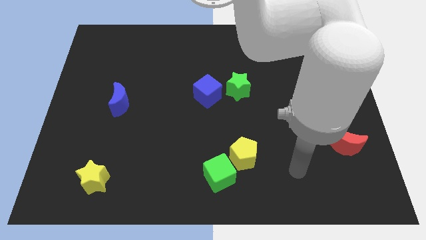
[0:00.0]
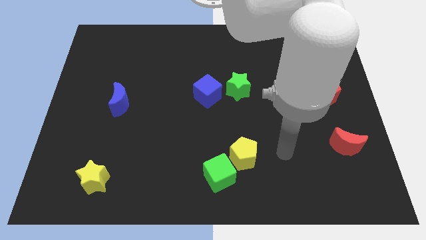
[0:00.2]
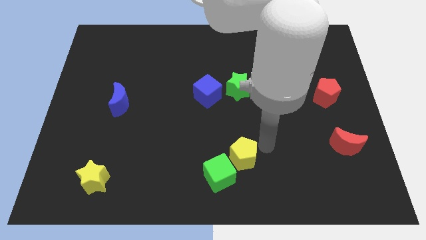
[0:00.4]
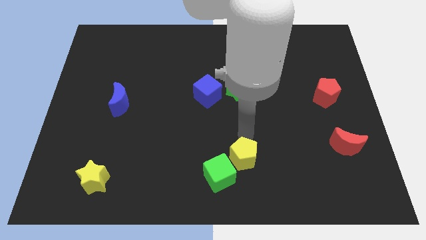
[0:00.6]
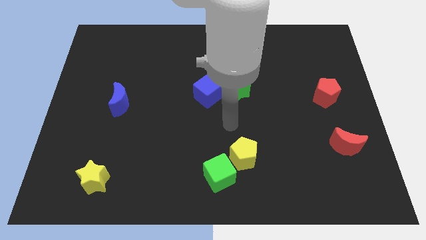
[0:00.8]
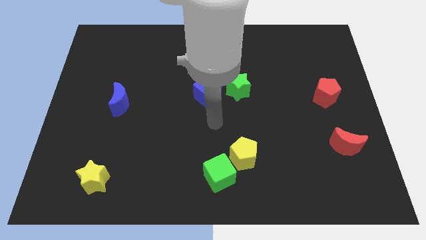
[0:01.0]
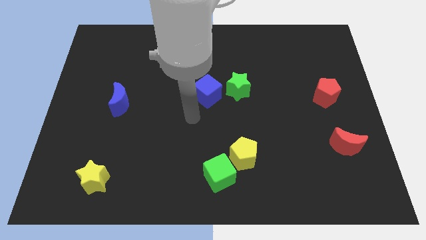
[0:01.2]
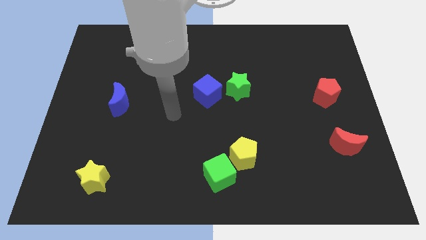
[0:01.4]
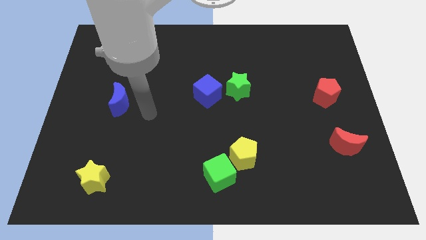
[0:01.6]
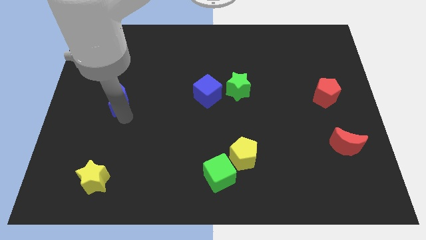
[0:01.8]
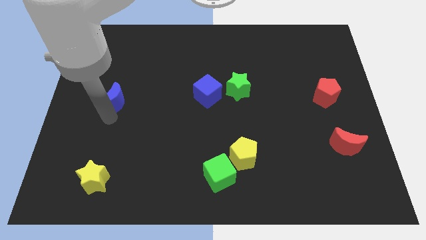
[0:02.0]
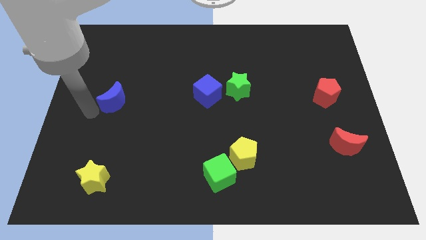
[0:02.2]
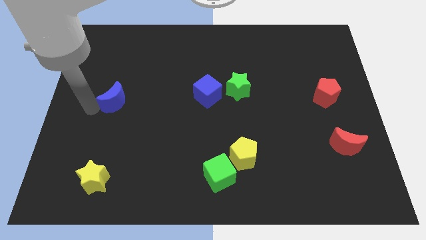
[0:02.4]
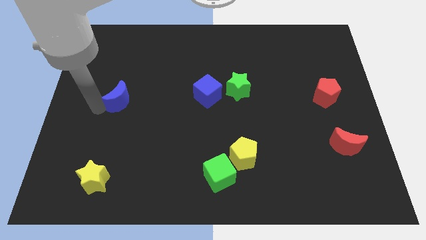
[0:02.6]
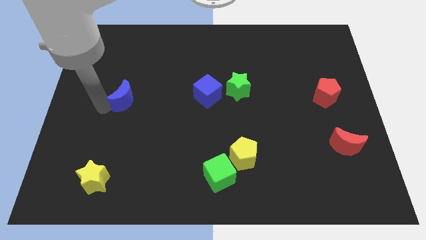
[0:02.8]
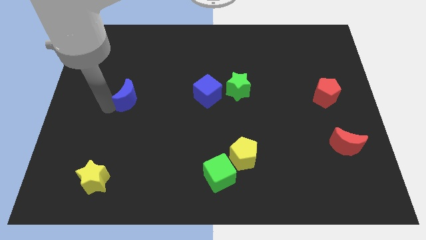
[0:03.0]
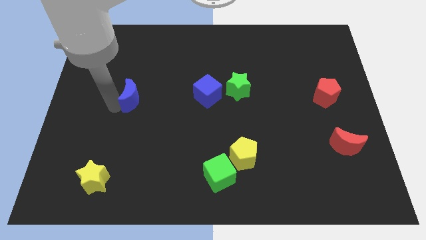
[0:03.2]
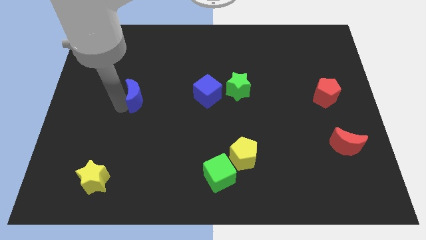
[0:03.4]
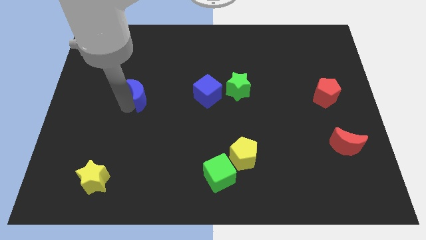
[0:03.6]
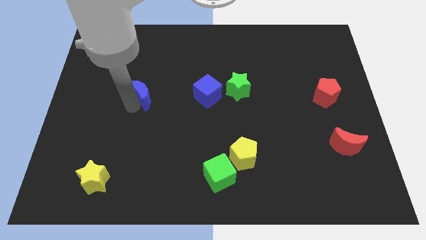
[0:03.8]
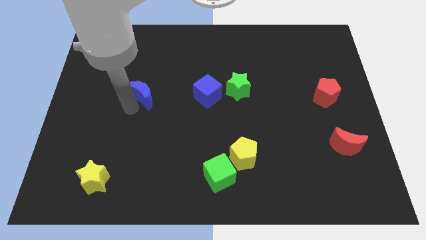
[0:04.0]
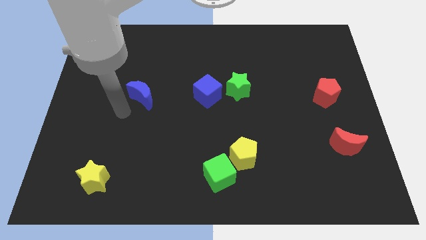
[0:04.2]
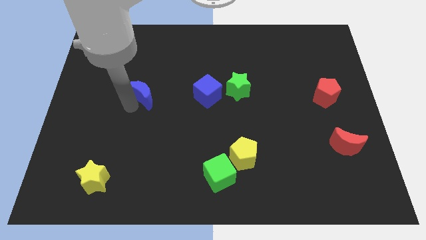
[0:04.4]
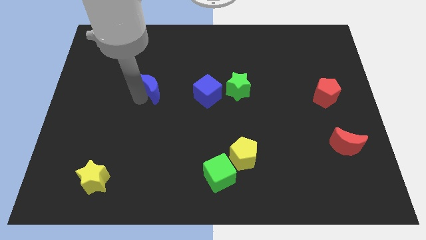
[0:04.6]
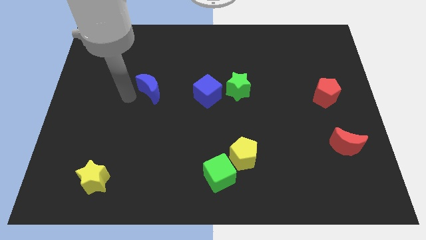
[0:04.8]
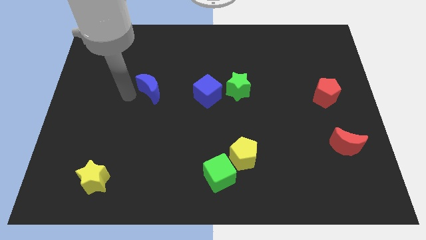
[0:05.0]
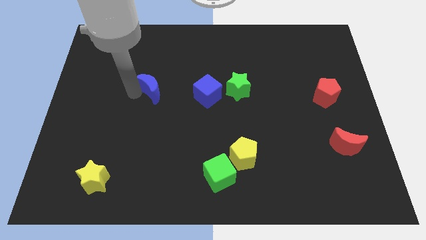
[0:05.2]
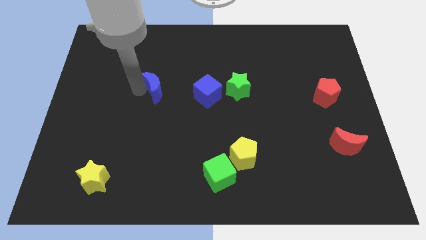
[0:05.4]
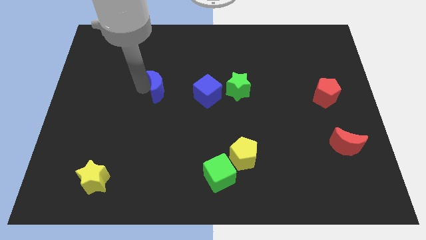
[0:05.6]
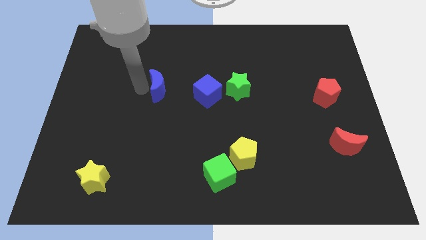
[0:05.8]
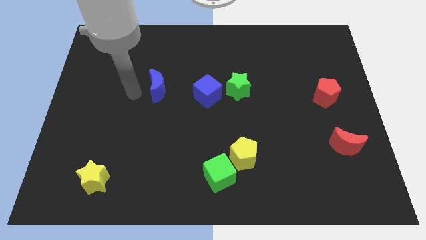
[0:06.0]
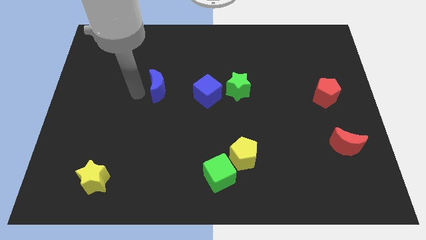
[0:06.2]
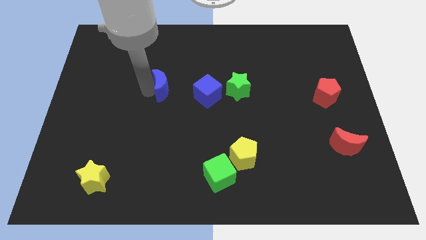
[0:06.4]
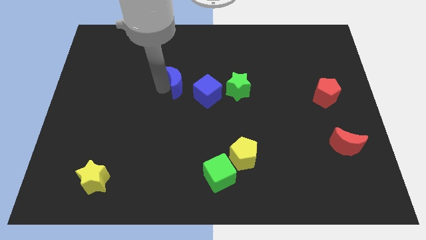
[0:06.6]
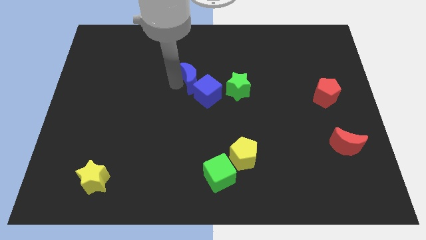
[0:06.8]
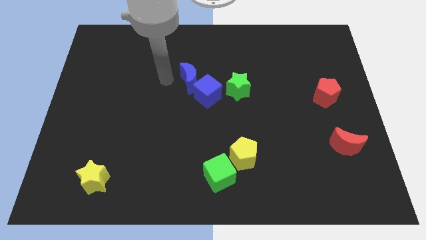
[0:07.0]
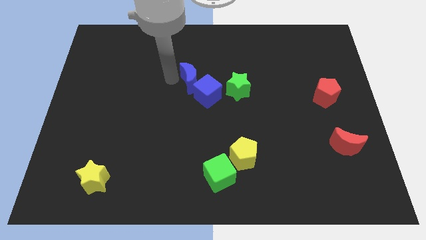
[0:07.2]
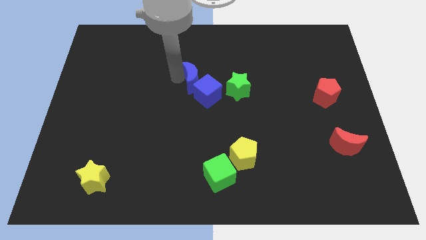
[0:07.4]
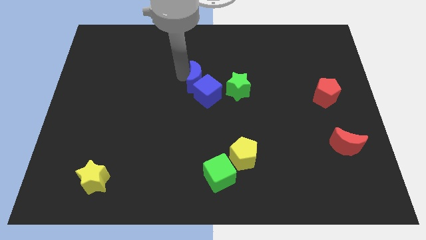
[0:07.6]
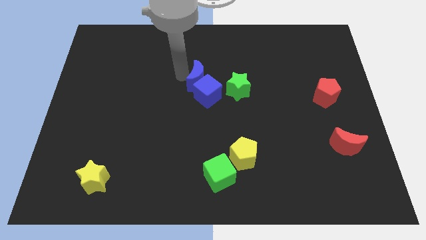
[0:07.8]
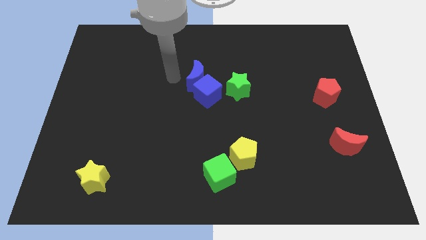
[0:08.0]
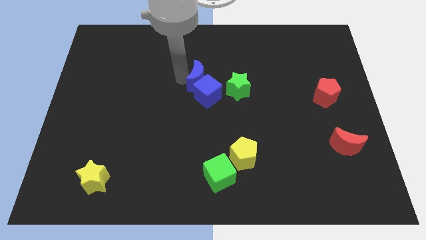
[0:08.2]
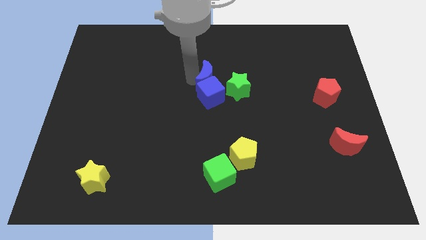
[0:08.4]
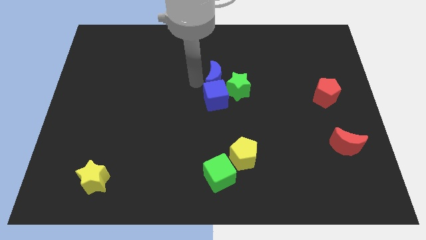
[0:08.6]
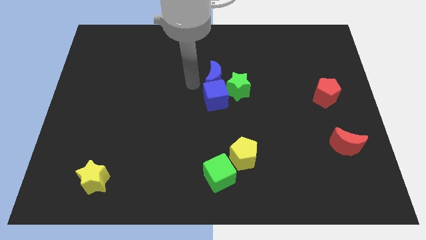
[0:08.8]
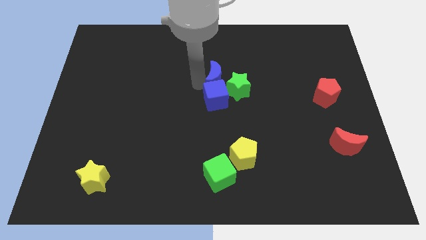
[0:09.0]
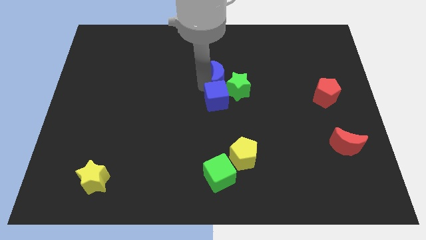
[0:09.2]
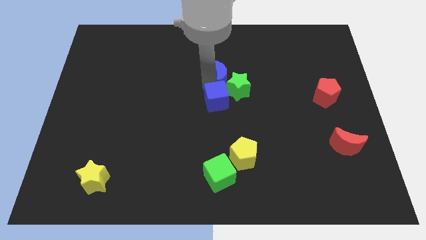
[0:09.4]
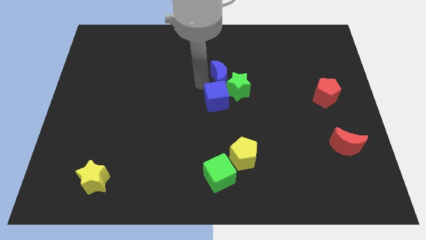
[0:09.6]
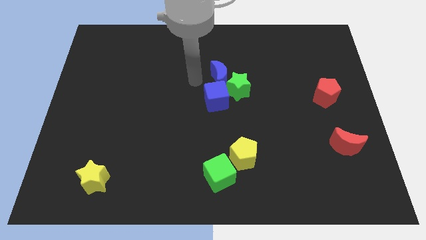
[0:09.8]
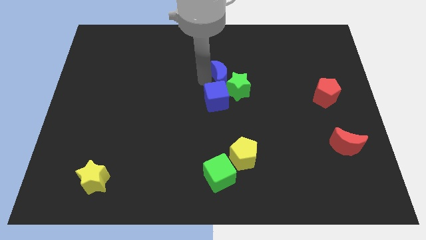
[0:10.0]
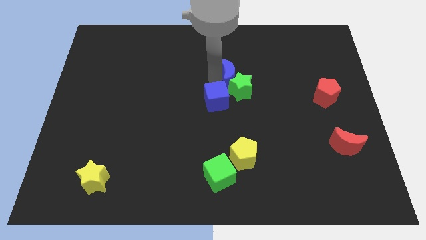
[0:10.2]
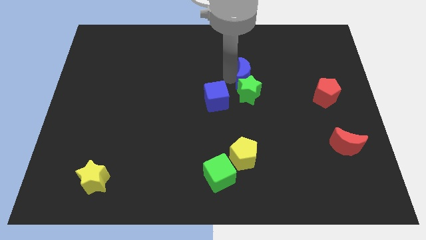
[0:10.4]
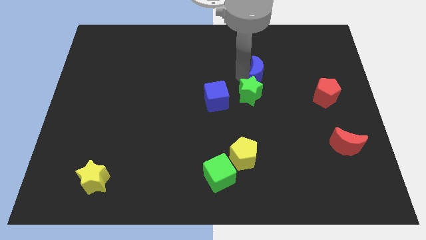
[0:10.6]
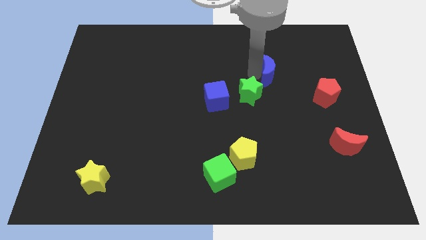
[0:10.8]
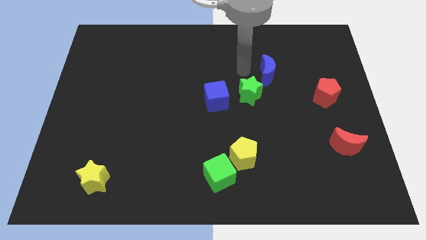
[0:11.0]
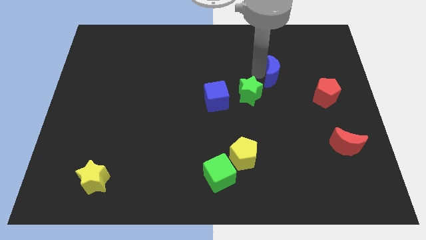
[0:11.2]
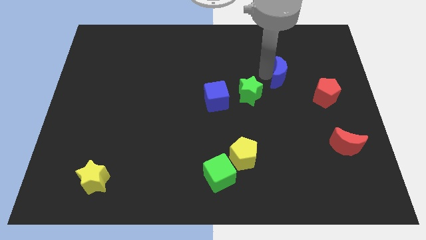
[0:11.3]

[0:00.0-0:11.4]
slide the blue moon diagonally up and to the left of the red pentagon

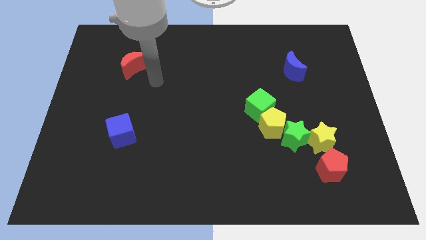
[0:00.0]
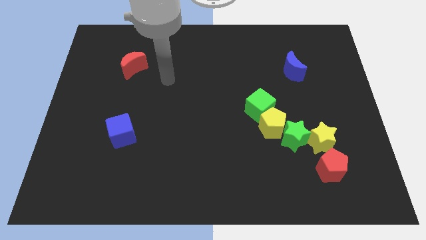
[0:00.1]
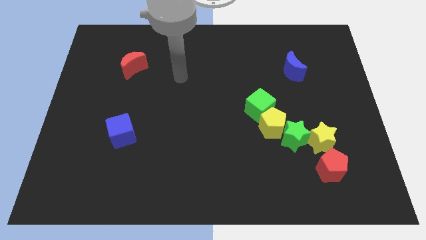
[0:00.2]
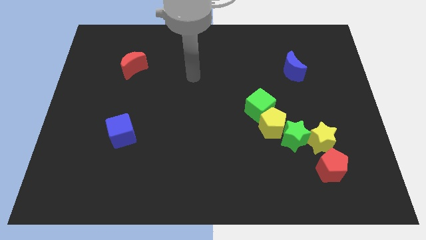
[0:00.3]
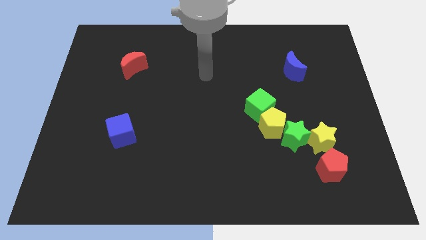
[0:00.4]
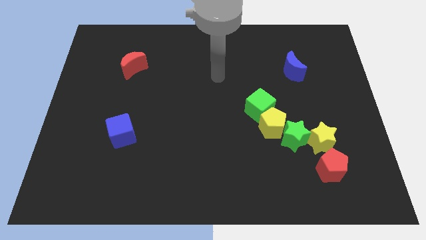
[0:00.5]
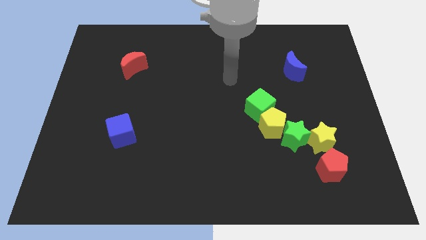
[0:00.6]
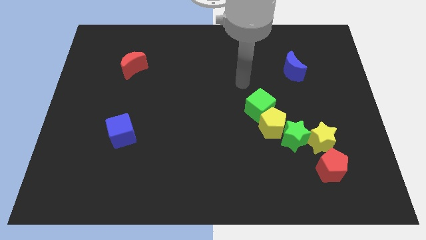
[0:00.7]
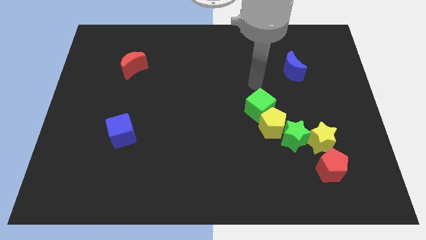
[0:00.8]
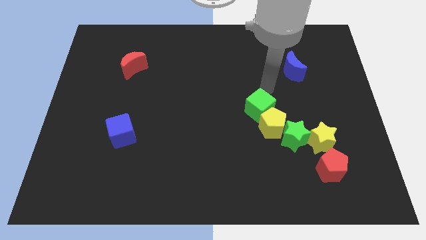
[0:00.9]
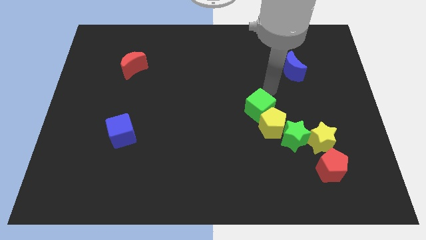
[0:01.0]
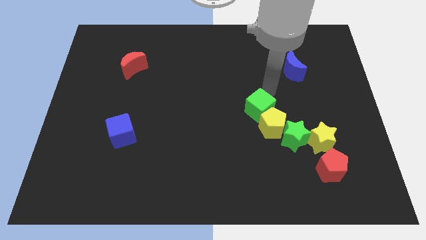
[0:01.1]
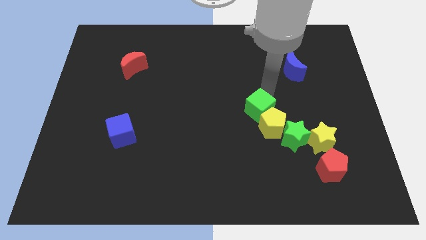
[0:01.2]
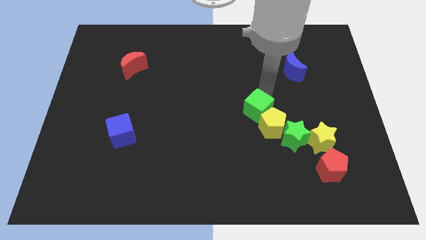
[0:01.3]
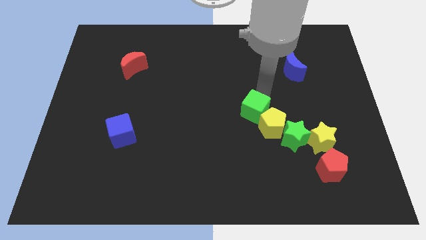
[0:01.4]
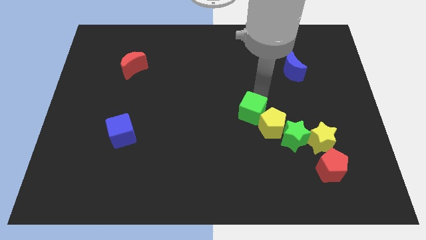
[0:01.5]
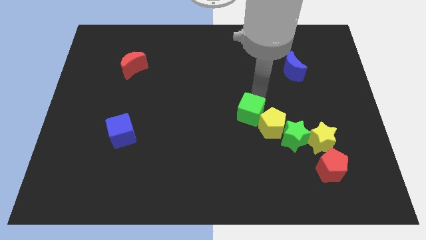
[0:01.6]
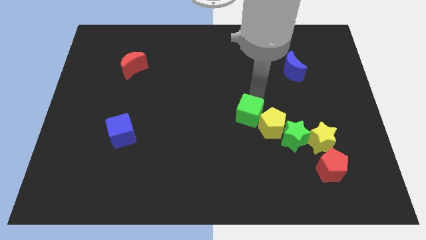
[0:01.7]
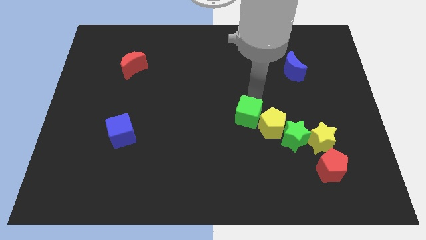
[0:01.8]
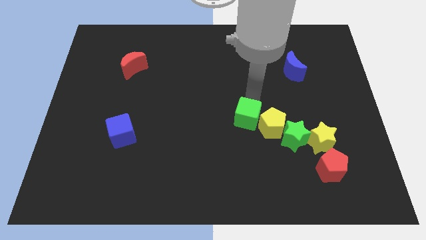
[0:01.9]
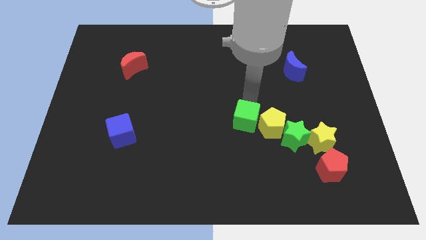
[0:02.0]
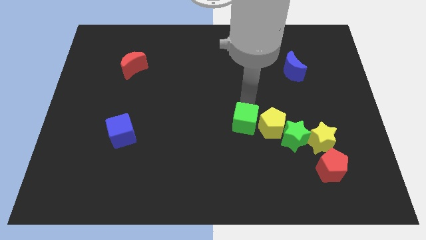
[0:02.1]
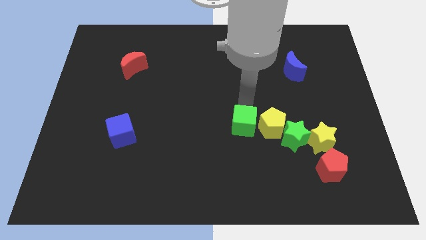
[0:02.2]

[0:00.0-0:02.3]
move the green cube to the bottom left of the yellow pentagon

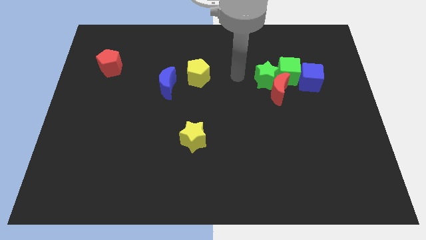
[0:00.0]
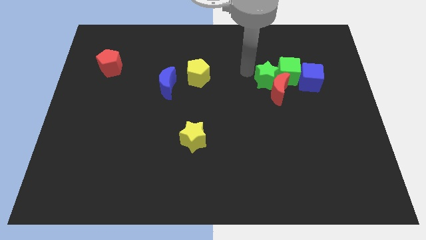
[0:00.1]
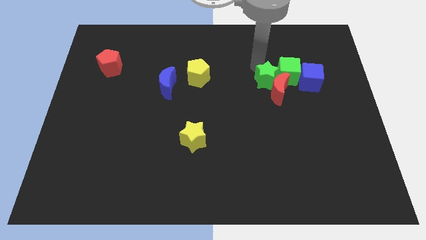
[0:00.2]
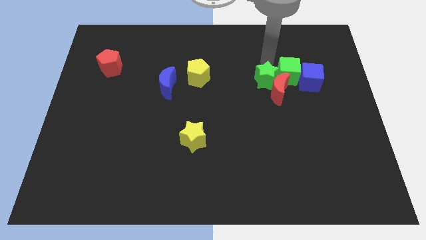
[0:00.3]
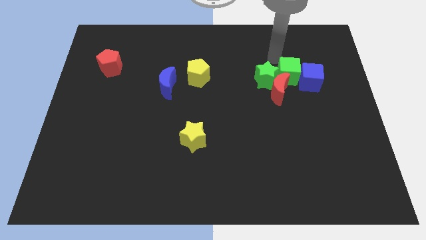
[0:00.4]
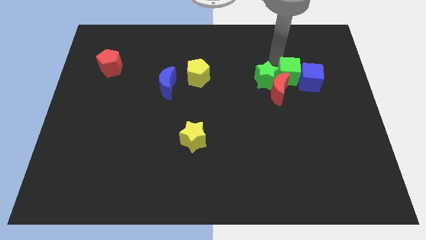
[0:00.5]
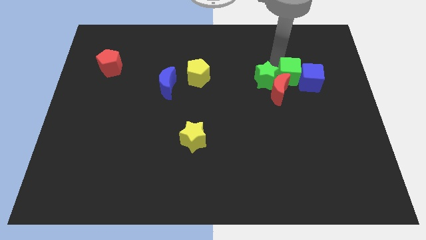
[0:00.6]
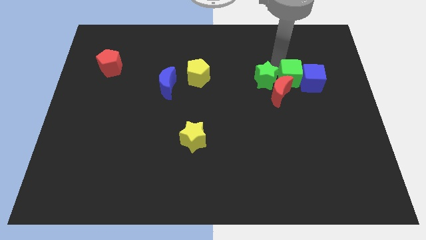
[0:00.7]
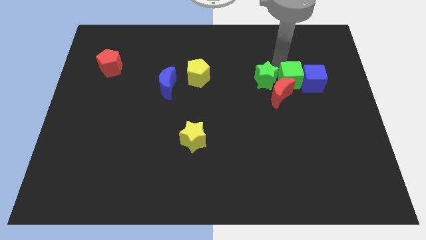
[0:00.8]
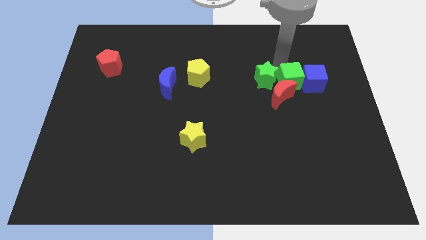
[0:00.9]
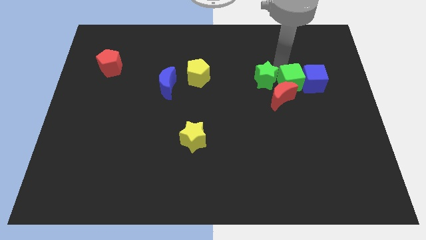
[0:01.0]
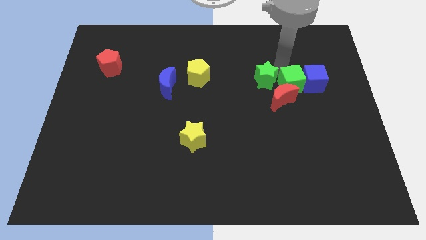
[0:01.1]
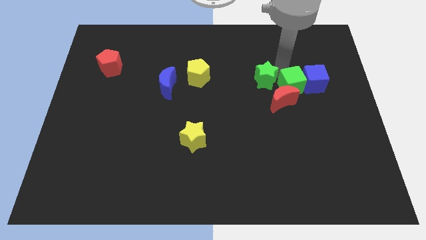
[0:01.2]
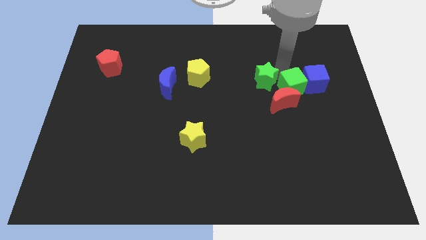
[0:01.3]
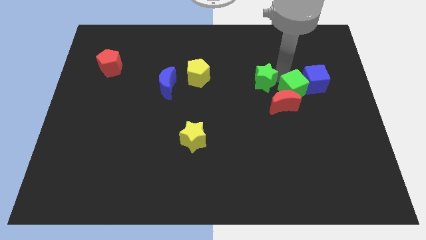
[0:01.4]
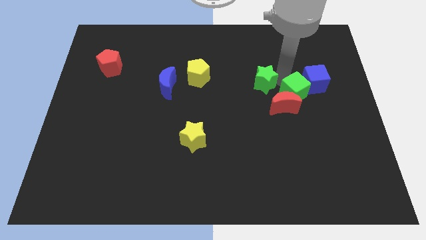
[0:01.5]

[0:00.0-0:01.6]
push the green cube to the right side of the red moon
